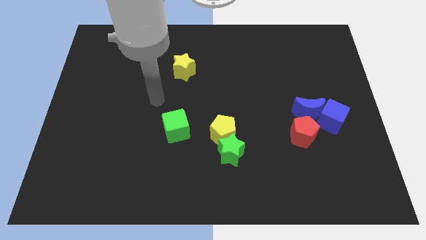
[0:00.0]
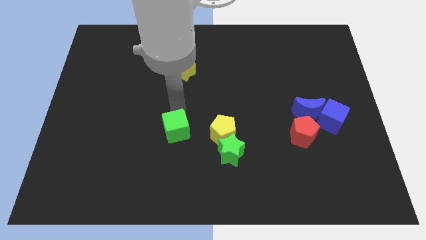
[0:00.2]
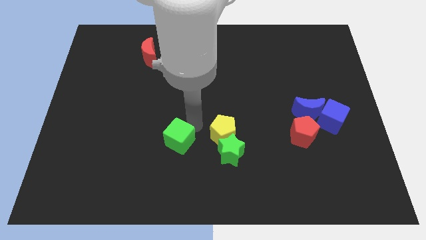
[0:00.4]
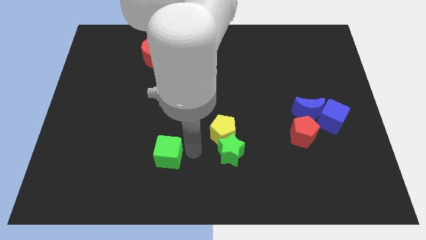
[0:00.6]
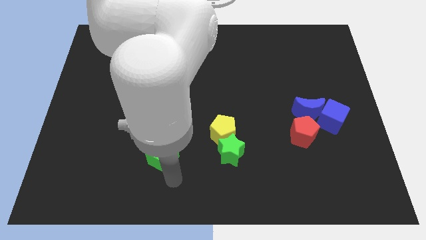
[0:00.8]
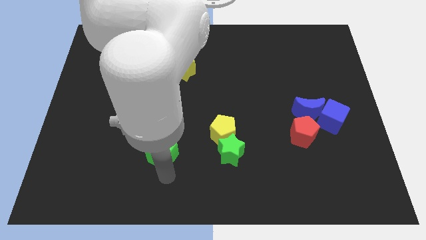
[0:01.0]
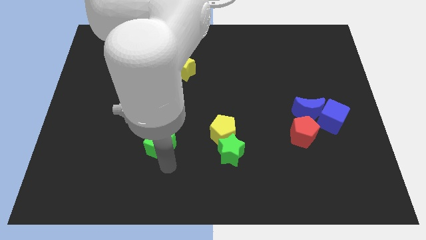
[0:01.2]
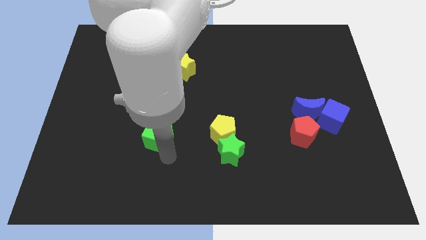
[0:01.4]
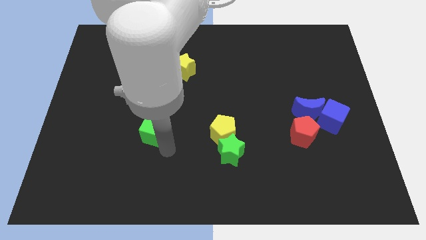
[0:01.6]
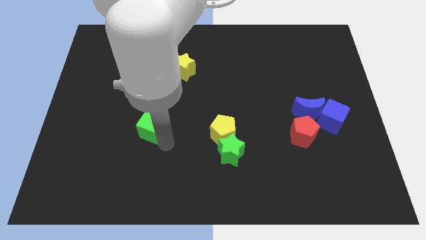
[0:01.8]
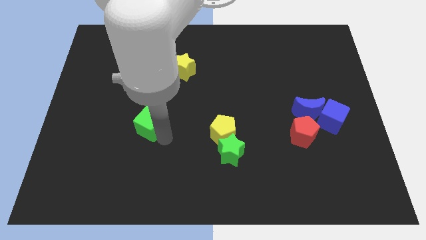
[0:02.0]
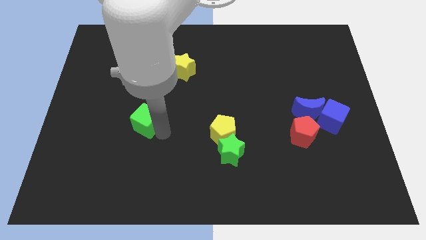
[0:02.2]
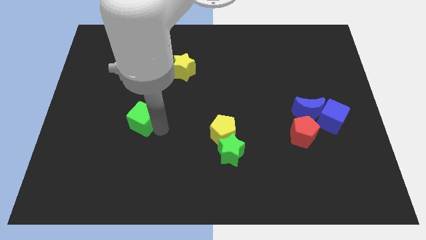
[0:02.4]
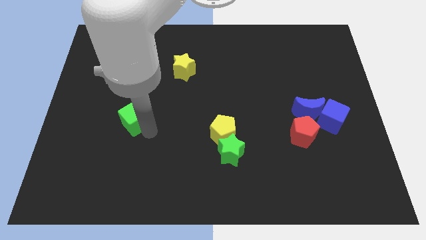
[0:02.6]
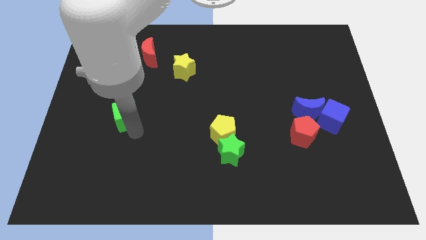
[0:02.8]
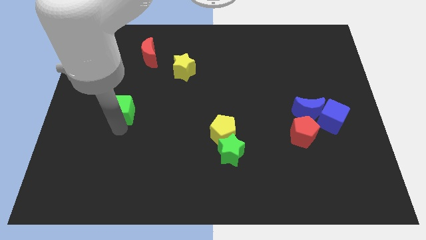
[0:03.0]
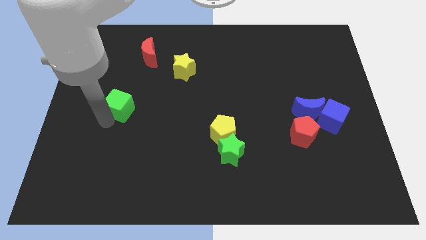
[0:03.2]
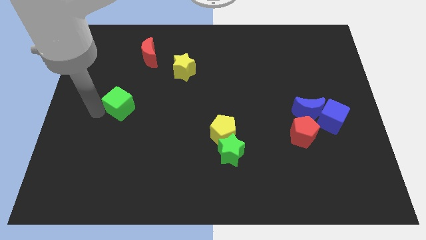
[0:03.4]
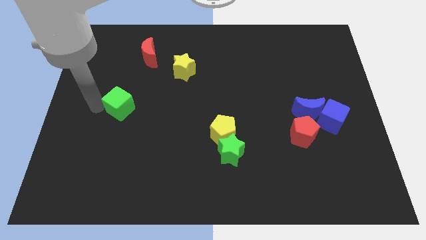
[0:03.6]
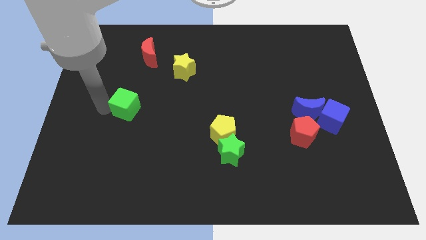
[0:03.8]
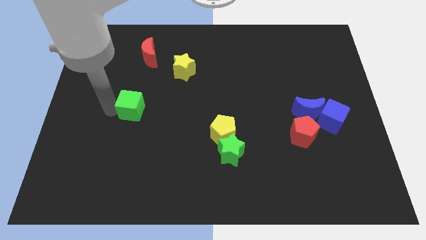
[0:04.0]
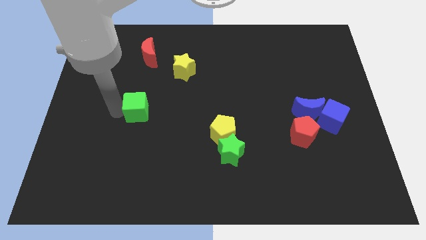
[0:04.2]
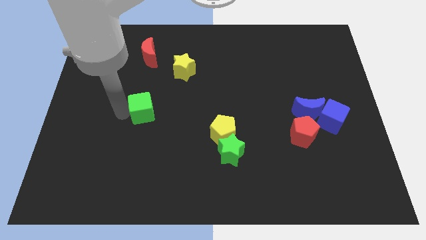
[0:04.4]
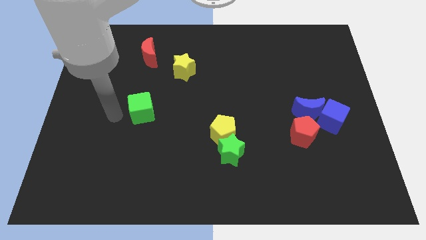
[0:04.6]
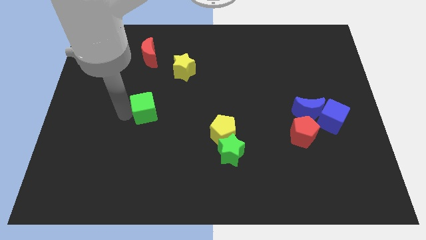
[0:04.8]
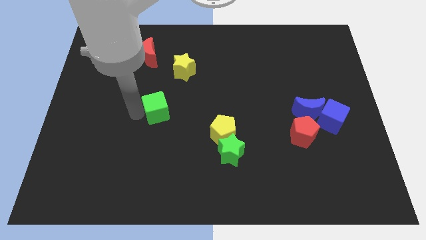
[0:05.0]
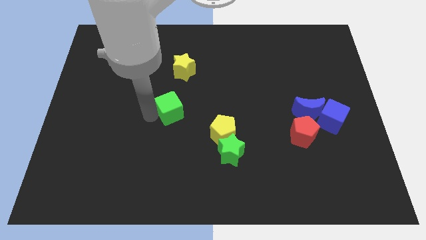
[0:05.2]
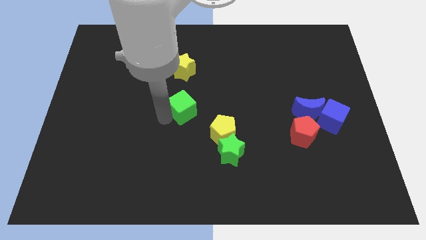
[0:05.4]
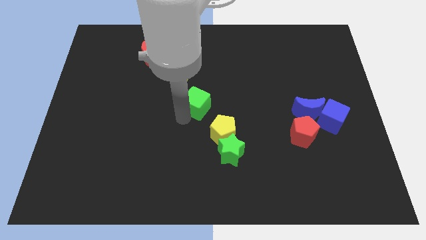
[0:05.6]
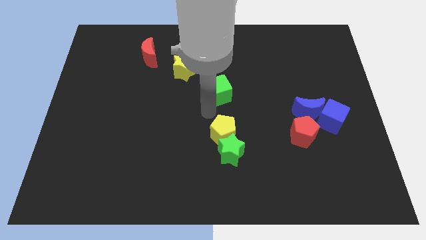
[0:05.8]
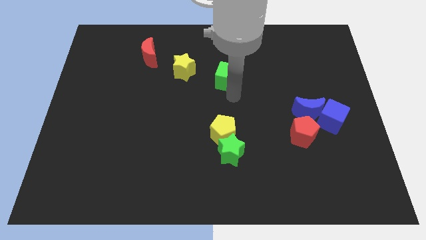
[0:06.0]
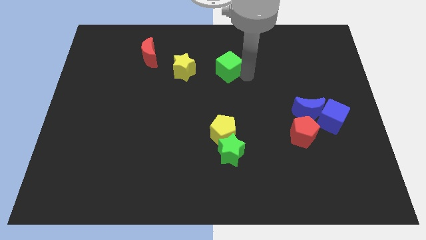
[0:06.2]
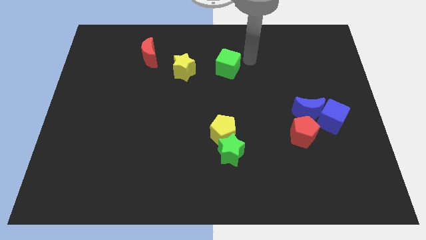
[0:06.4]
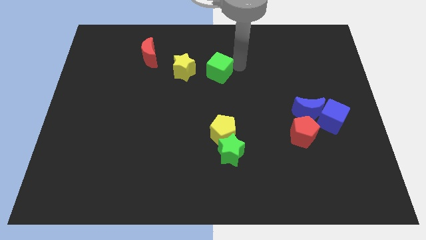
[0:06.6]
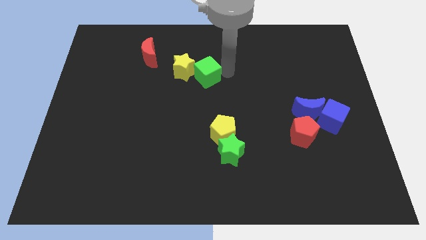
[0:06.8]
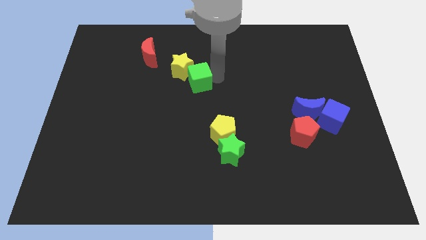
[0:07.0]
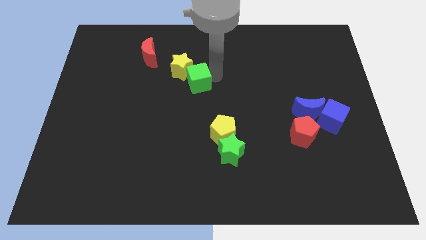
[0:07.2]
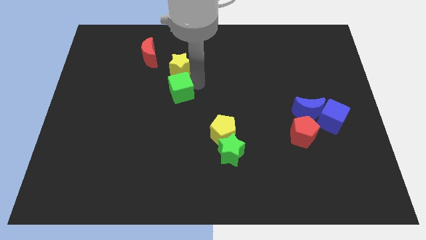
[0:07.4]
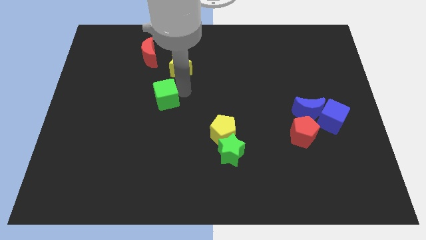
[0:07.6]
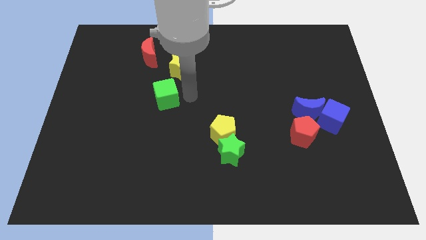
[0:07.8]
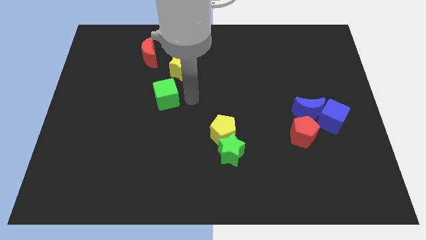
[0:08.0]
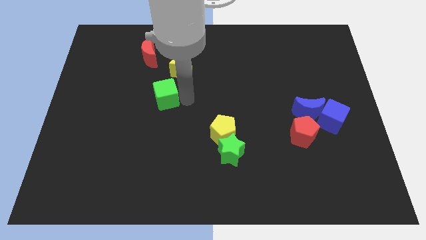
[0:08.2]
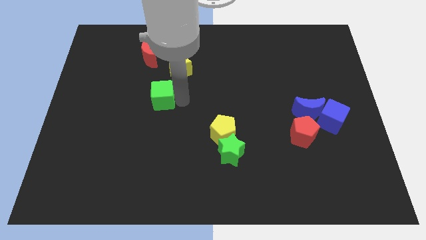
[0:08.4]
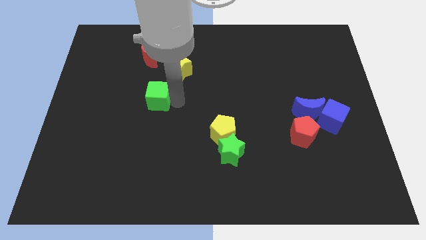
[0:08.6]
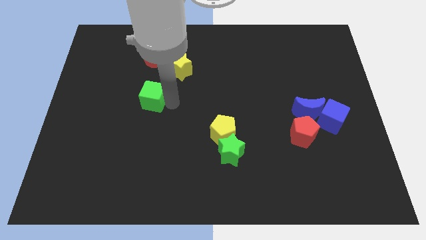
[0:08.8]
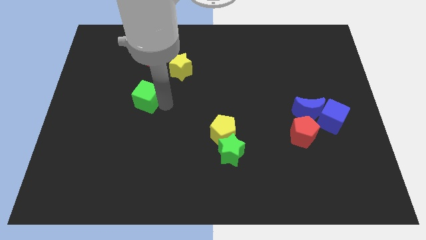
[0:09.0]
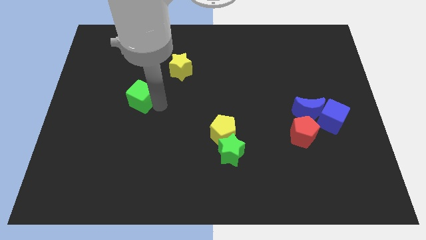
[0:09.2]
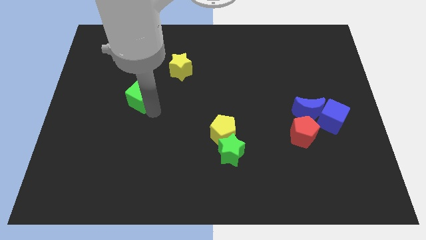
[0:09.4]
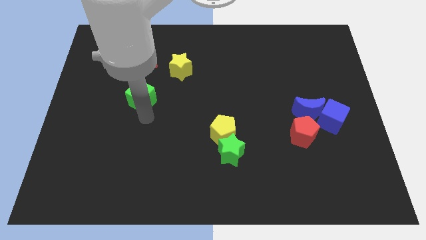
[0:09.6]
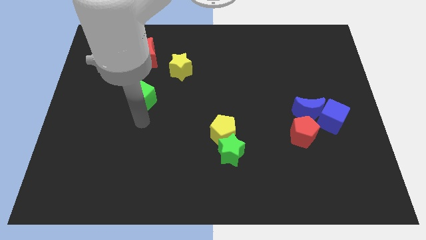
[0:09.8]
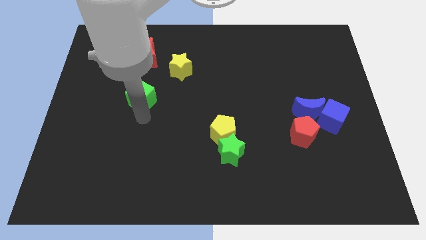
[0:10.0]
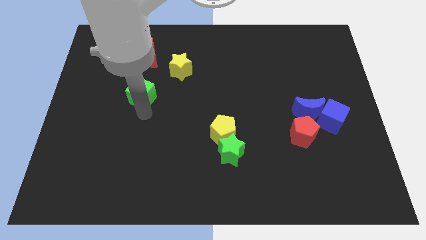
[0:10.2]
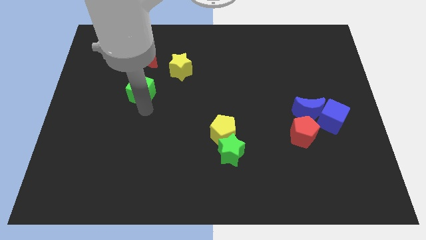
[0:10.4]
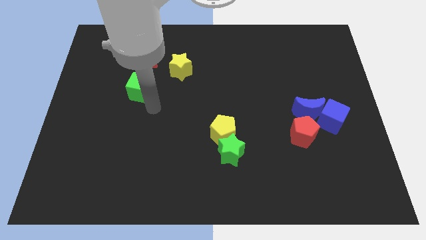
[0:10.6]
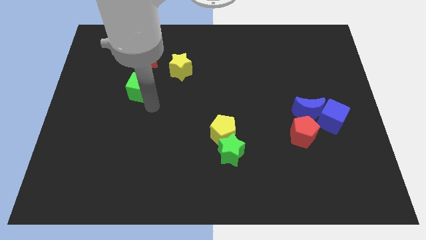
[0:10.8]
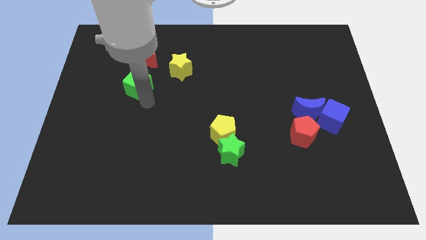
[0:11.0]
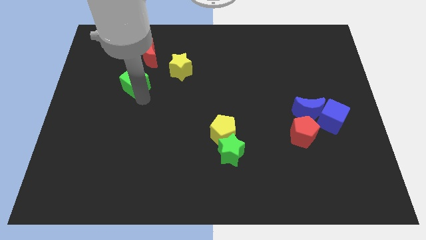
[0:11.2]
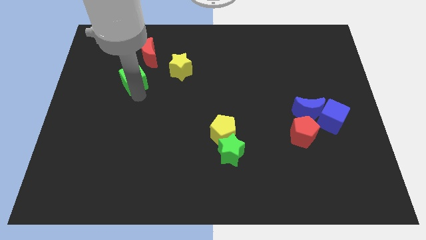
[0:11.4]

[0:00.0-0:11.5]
put the green cube to the bottom left of the red moon

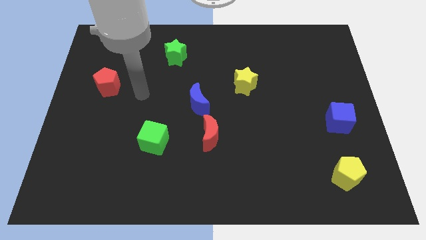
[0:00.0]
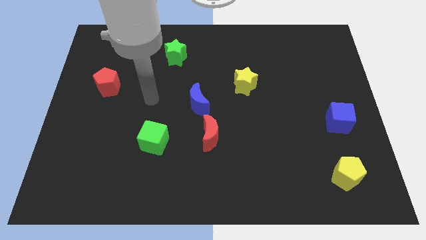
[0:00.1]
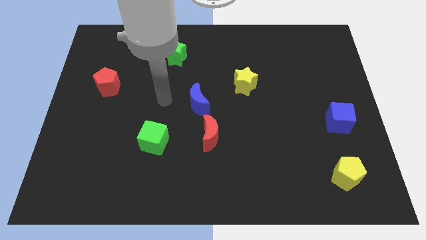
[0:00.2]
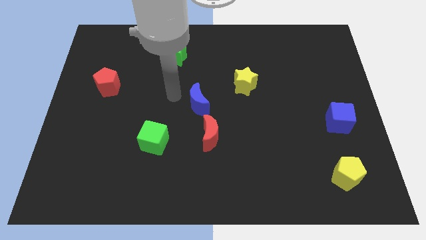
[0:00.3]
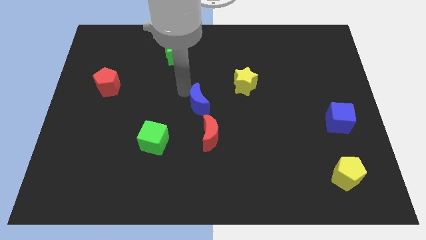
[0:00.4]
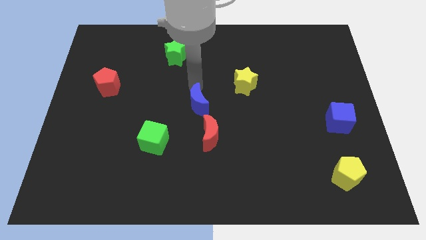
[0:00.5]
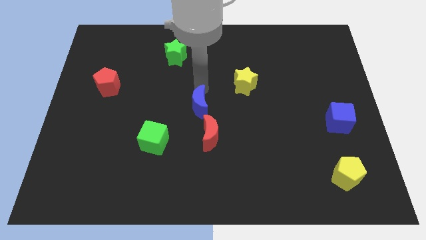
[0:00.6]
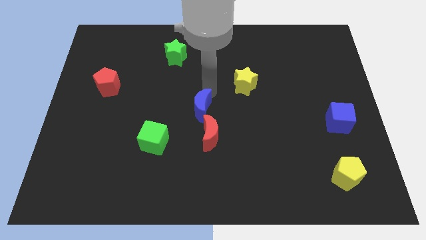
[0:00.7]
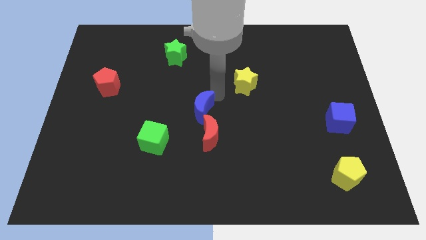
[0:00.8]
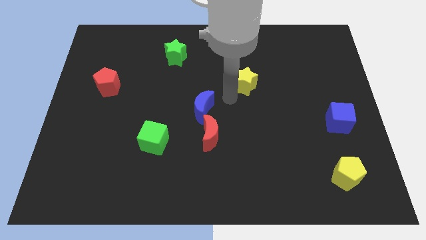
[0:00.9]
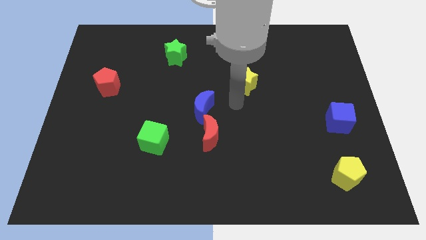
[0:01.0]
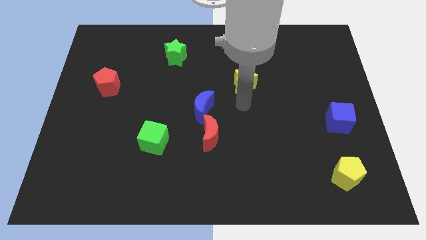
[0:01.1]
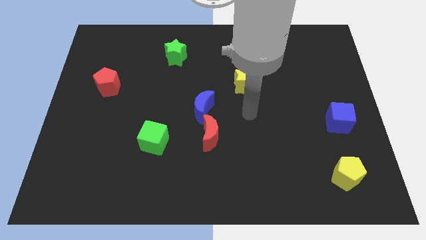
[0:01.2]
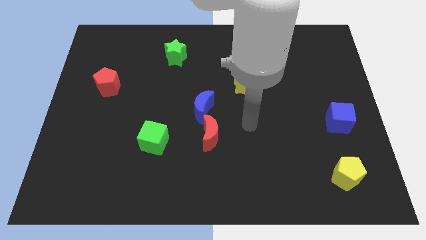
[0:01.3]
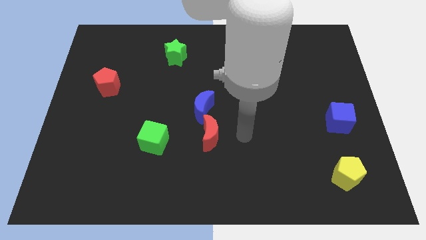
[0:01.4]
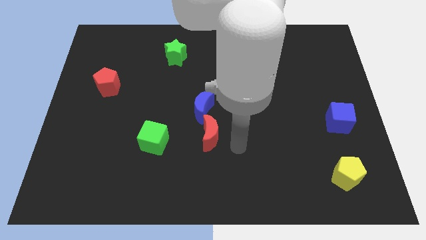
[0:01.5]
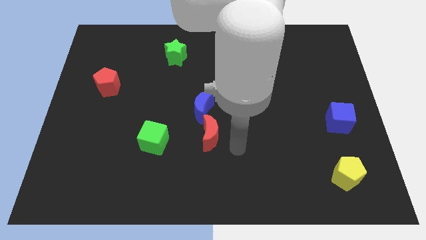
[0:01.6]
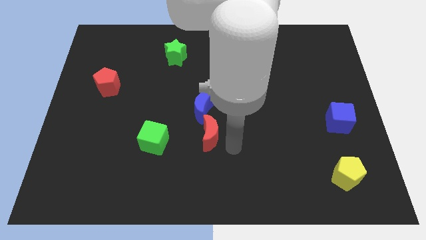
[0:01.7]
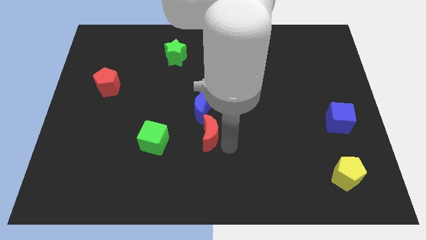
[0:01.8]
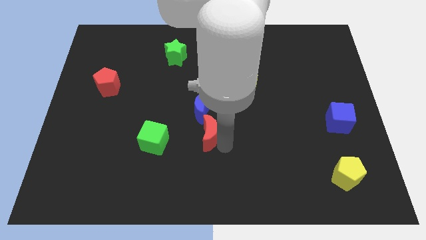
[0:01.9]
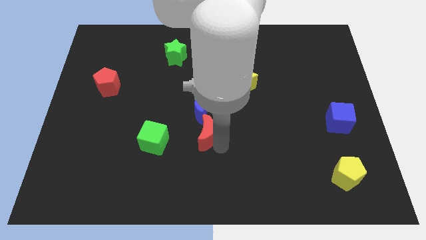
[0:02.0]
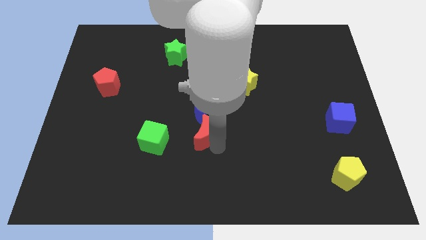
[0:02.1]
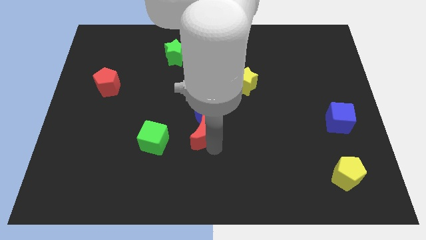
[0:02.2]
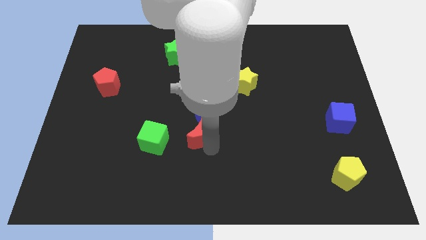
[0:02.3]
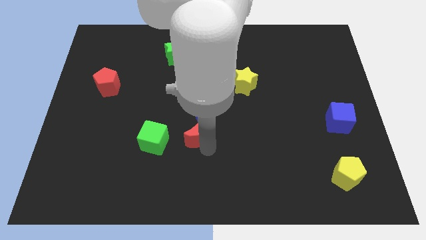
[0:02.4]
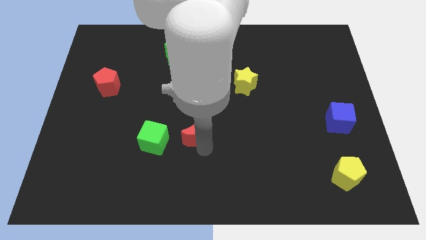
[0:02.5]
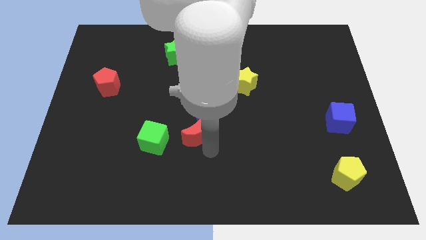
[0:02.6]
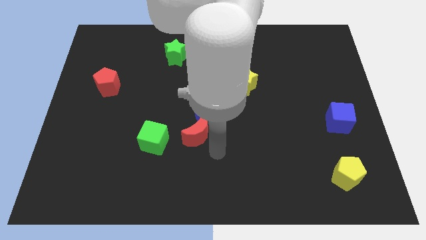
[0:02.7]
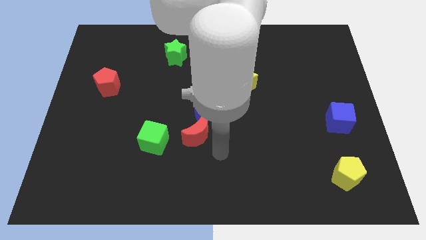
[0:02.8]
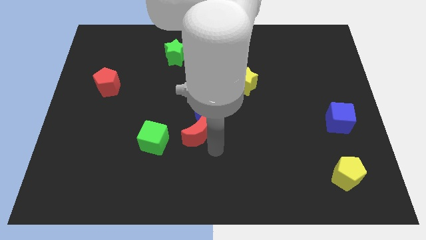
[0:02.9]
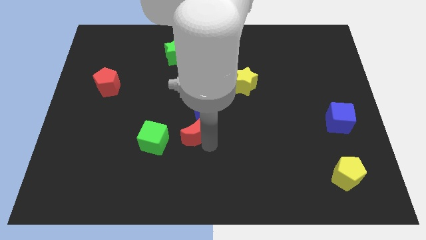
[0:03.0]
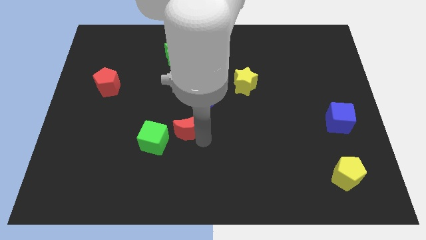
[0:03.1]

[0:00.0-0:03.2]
slide the red moon to the top right of the green cube
